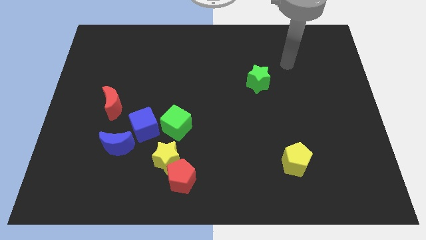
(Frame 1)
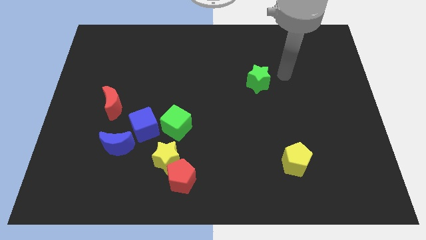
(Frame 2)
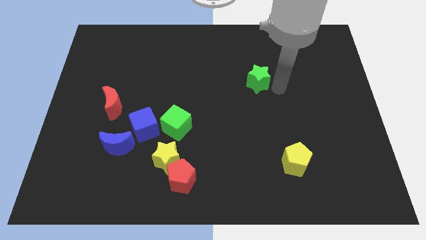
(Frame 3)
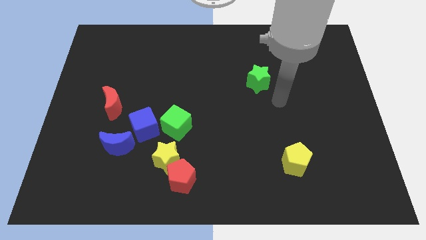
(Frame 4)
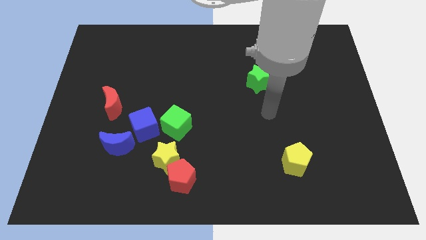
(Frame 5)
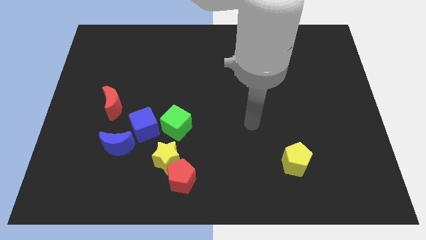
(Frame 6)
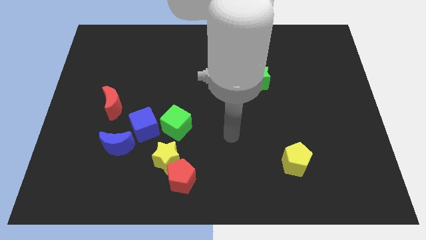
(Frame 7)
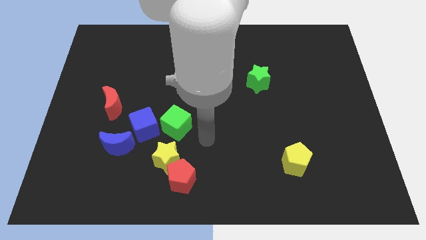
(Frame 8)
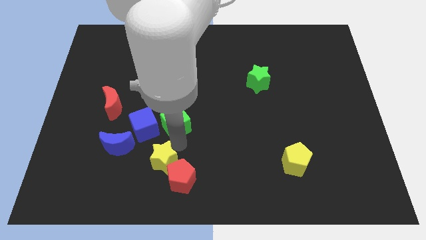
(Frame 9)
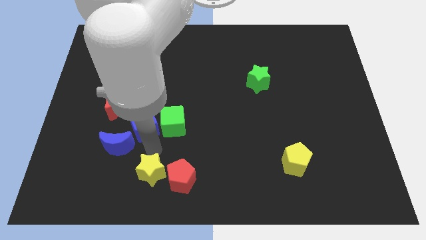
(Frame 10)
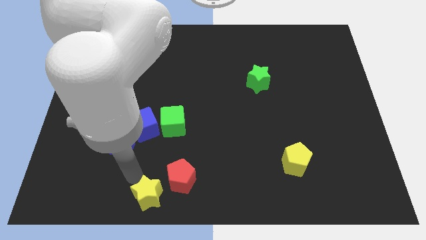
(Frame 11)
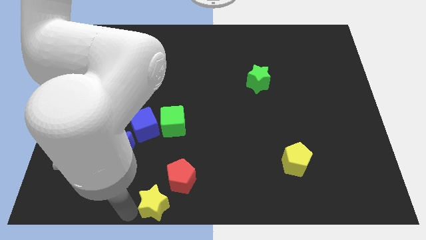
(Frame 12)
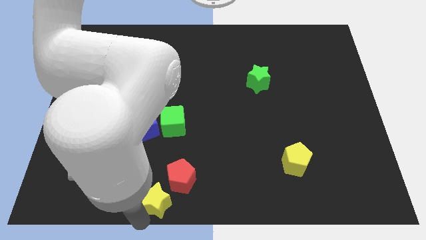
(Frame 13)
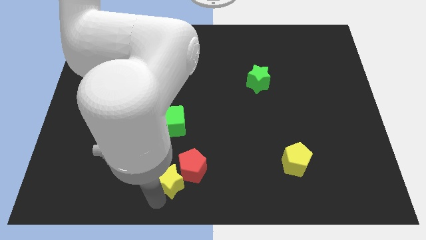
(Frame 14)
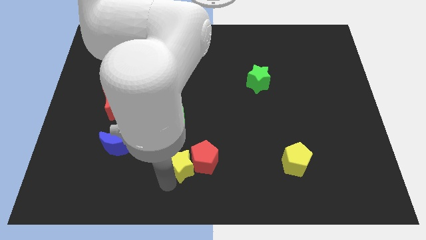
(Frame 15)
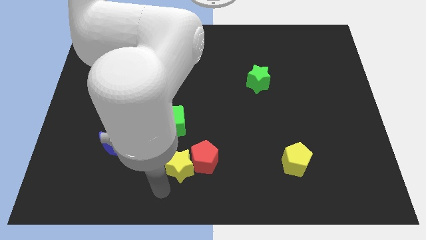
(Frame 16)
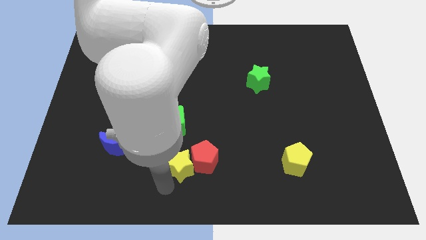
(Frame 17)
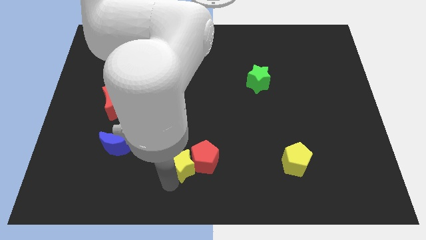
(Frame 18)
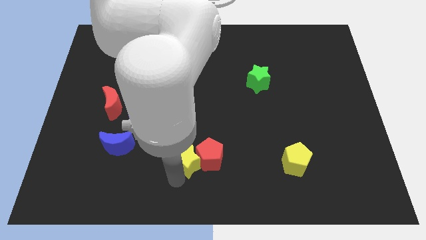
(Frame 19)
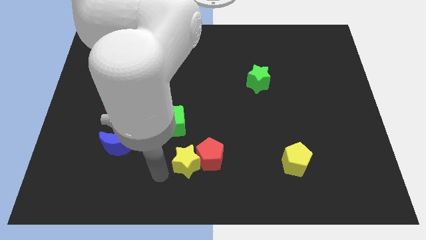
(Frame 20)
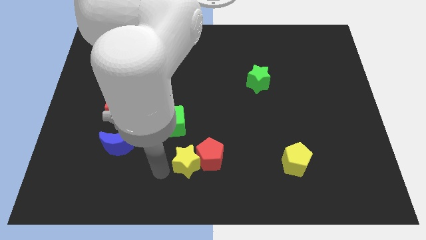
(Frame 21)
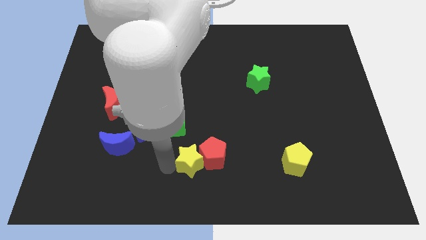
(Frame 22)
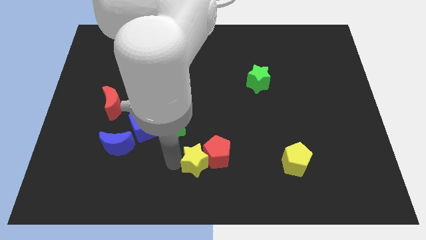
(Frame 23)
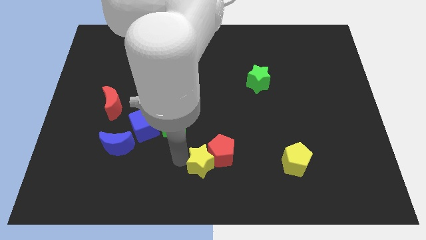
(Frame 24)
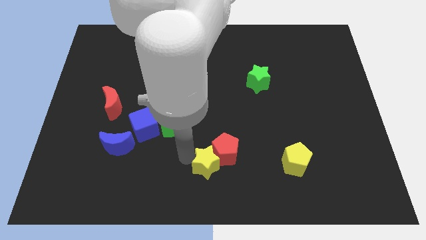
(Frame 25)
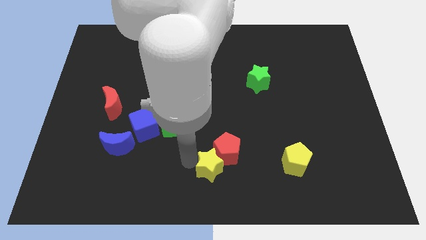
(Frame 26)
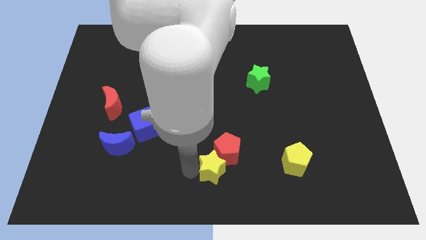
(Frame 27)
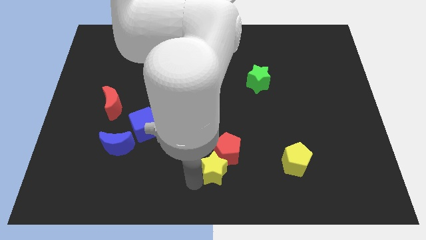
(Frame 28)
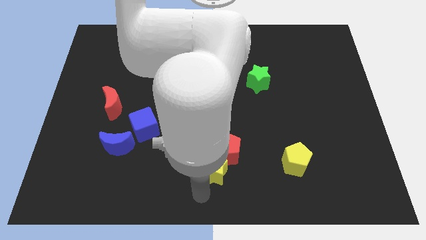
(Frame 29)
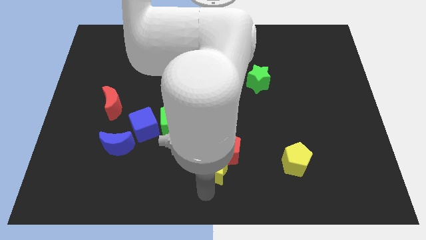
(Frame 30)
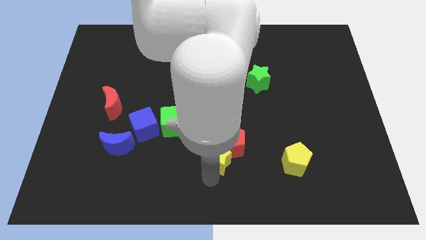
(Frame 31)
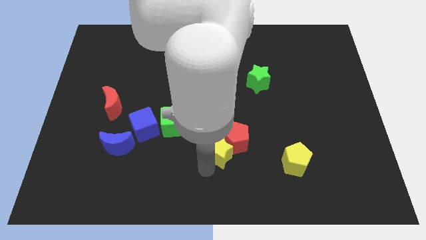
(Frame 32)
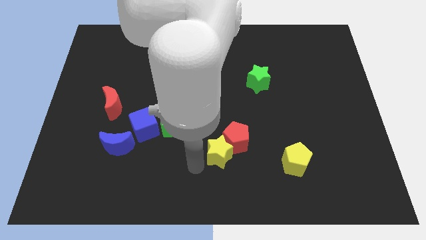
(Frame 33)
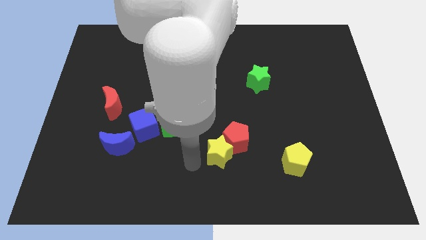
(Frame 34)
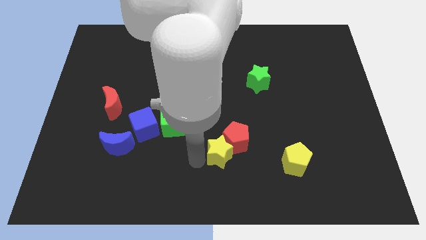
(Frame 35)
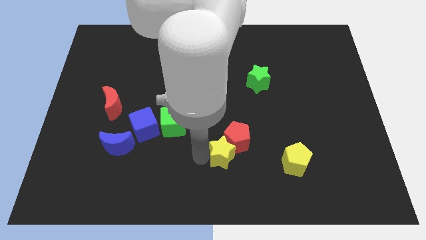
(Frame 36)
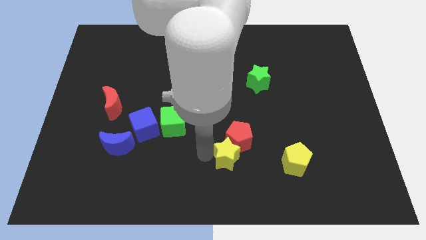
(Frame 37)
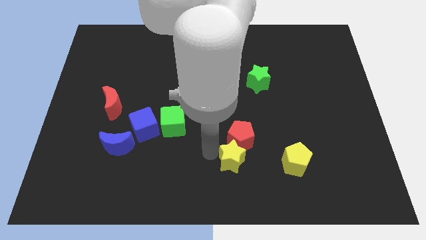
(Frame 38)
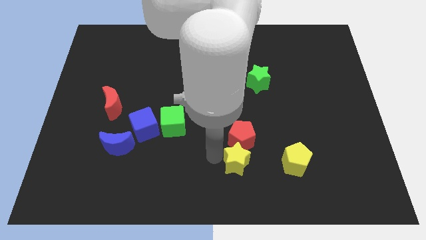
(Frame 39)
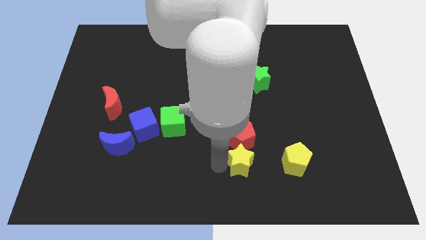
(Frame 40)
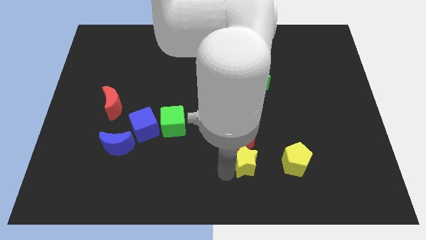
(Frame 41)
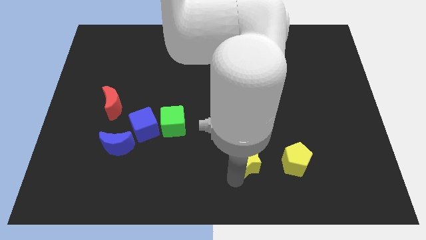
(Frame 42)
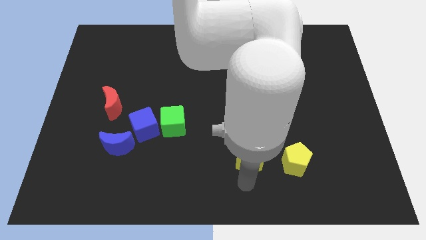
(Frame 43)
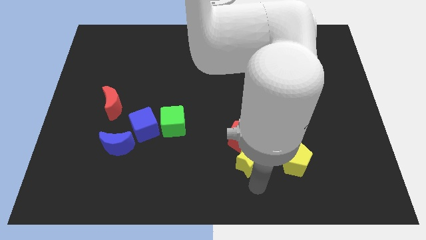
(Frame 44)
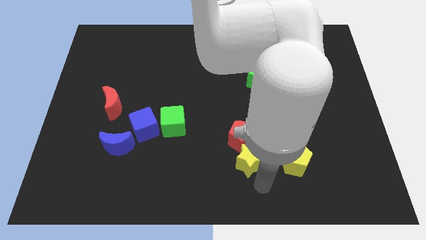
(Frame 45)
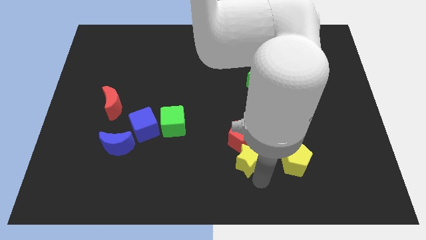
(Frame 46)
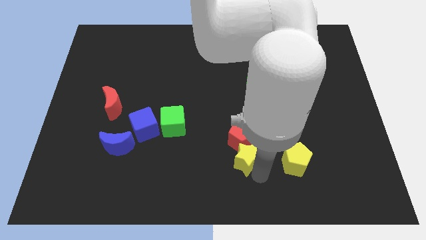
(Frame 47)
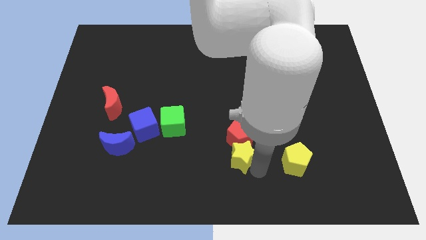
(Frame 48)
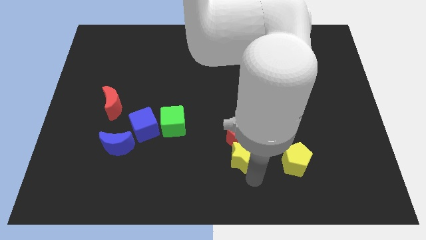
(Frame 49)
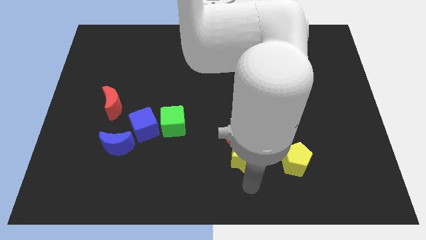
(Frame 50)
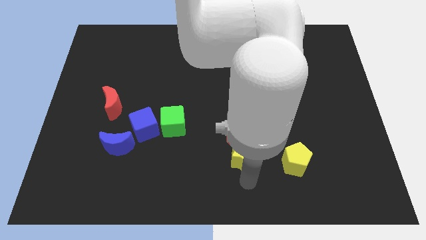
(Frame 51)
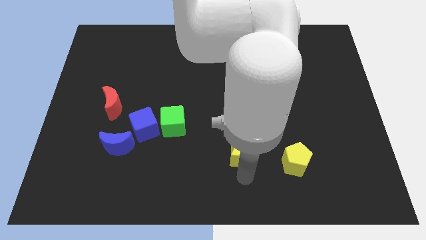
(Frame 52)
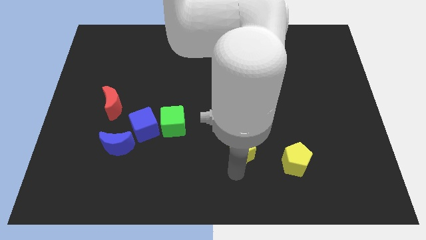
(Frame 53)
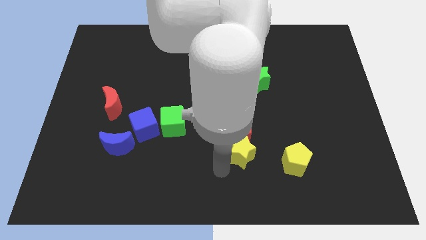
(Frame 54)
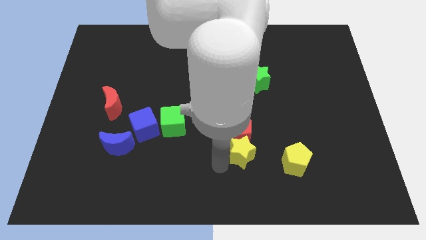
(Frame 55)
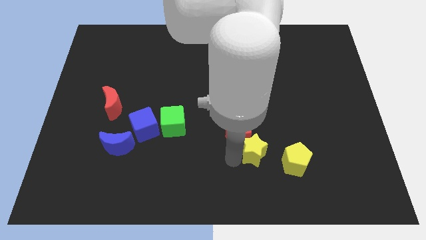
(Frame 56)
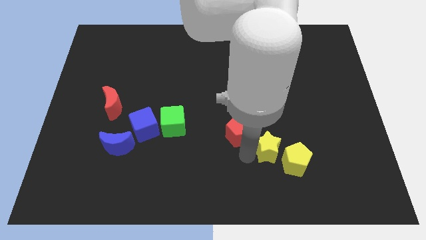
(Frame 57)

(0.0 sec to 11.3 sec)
push the yellow star right

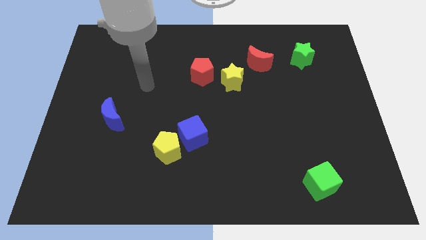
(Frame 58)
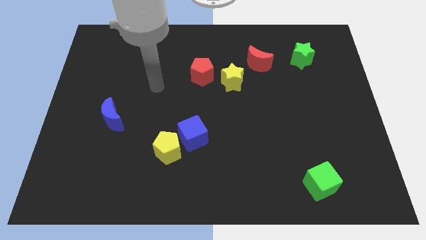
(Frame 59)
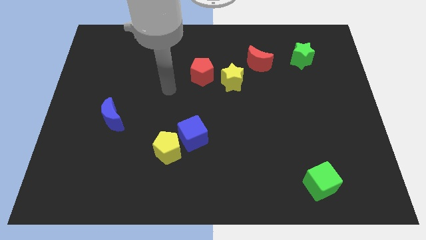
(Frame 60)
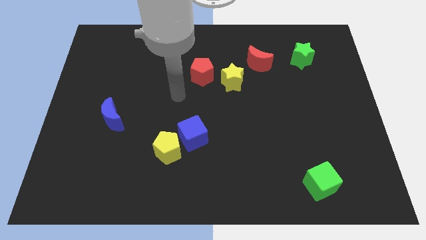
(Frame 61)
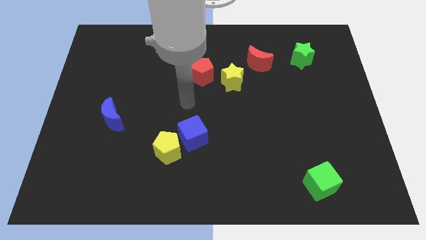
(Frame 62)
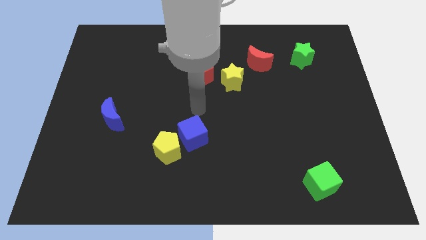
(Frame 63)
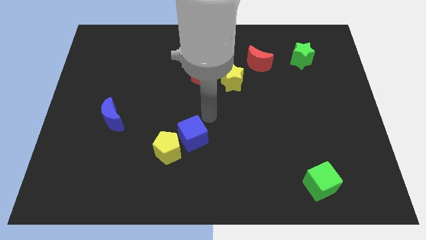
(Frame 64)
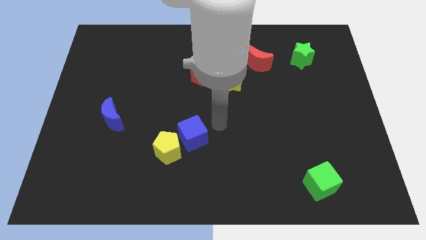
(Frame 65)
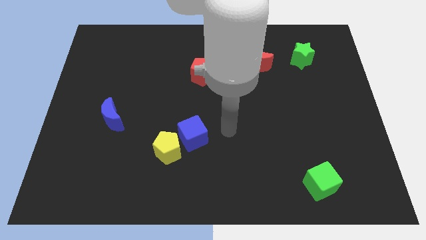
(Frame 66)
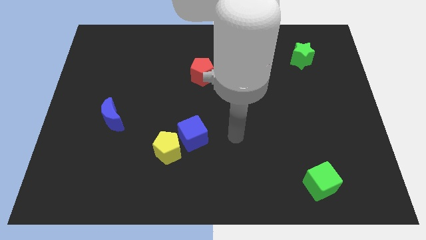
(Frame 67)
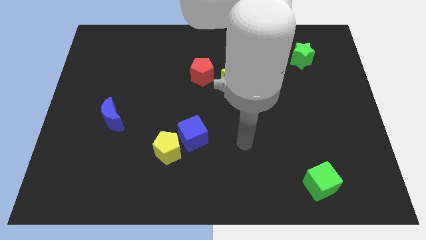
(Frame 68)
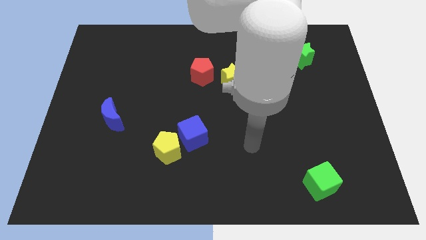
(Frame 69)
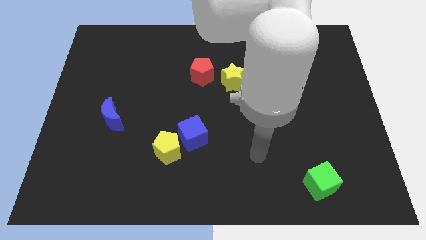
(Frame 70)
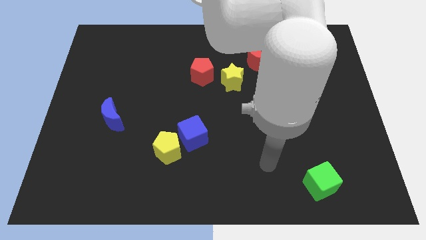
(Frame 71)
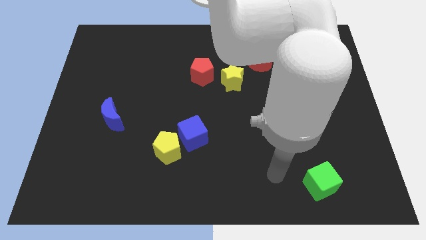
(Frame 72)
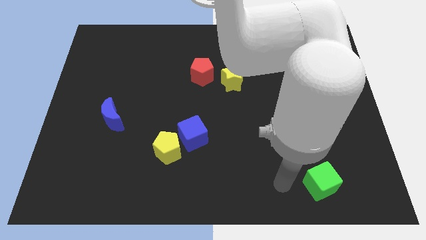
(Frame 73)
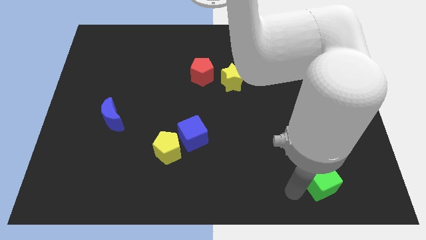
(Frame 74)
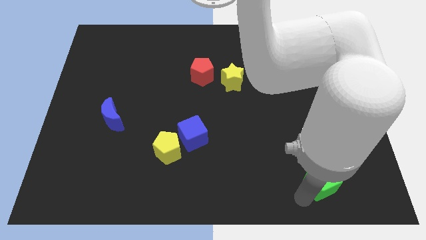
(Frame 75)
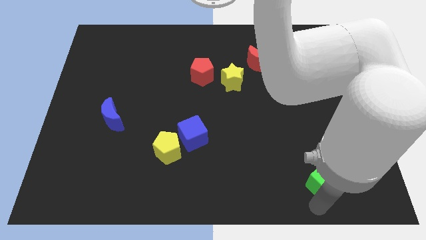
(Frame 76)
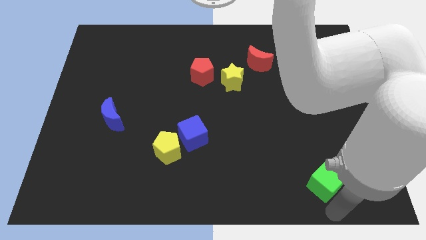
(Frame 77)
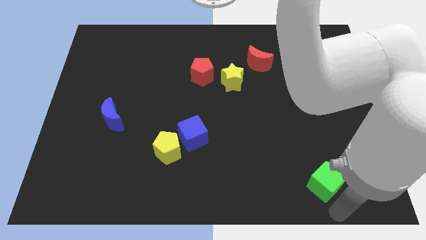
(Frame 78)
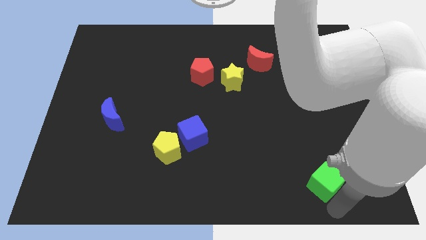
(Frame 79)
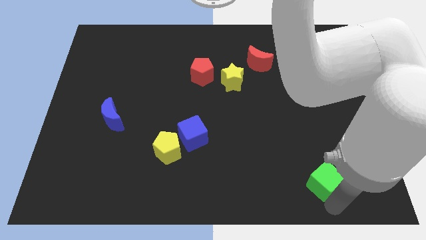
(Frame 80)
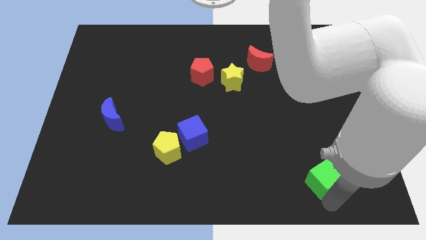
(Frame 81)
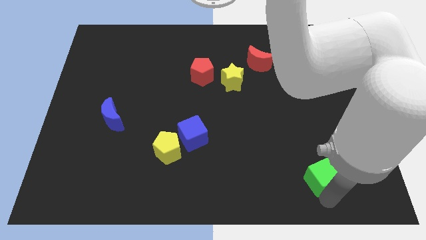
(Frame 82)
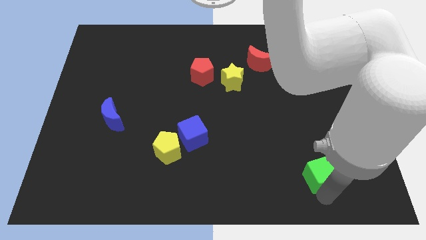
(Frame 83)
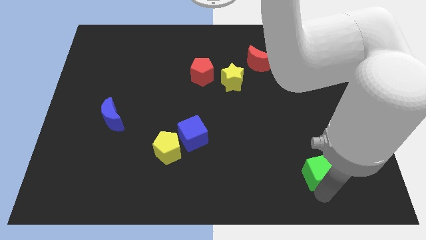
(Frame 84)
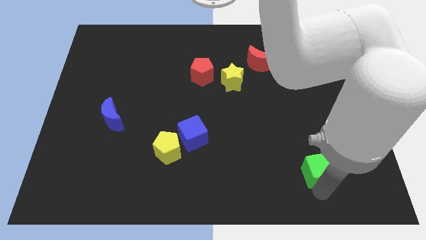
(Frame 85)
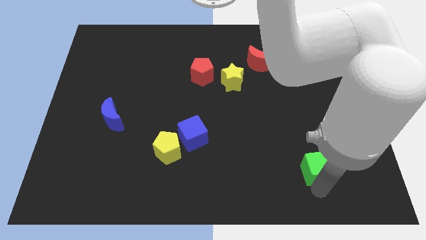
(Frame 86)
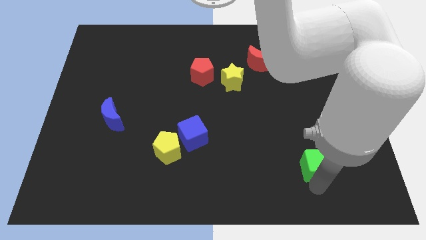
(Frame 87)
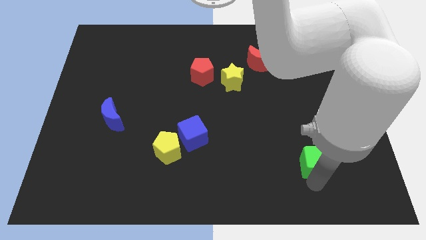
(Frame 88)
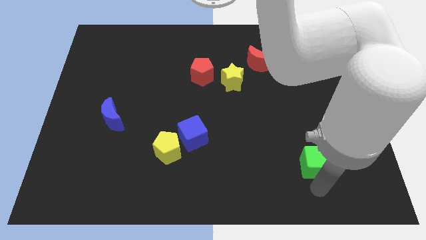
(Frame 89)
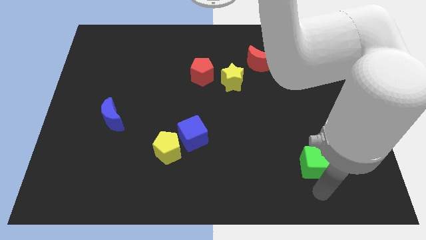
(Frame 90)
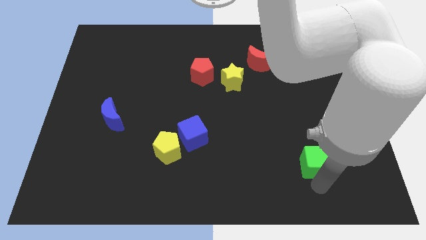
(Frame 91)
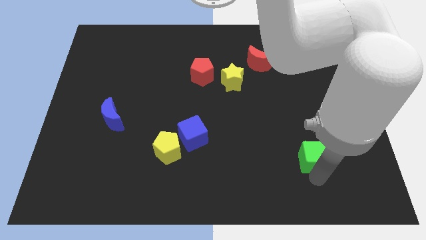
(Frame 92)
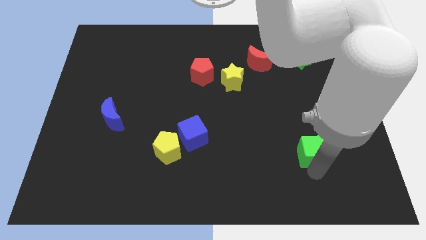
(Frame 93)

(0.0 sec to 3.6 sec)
push the green cube slightly up
